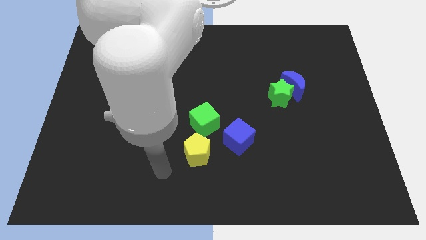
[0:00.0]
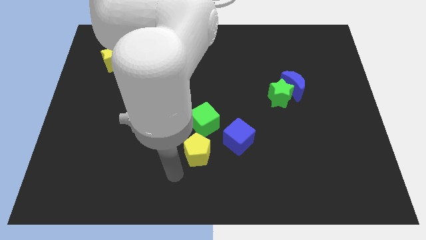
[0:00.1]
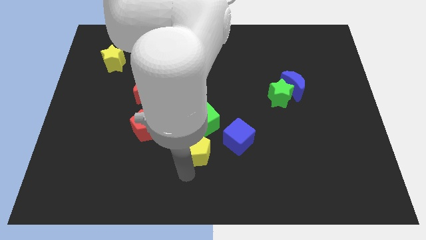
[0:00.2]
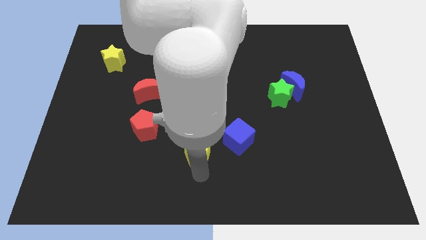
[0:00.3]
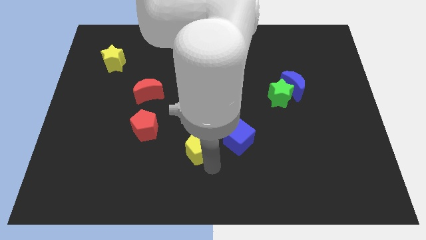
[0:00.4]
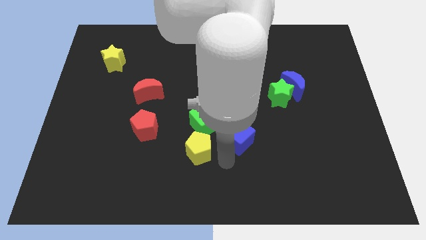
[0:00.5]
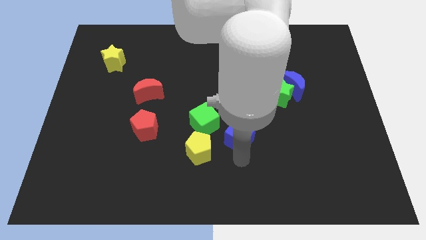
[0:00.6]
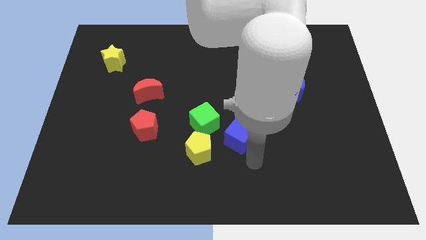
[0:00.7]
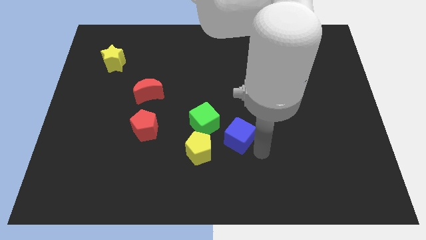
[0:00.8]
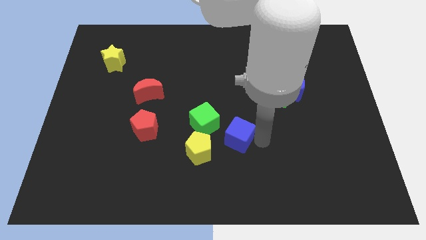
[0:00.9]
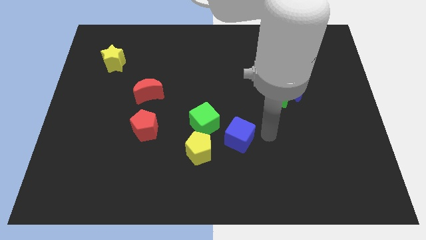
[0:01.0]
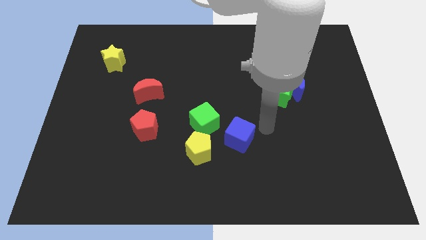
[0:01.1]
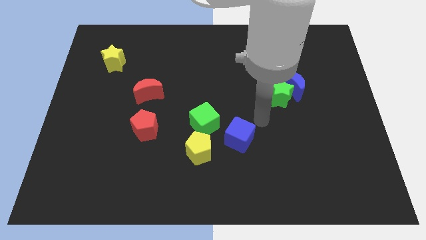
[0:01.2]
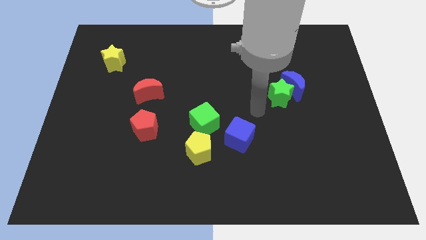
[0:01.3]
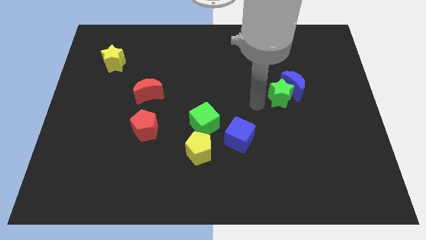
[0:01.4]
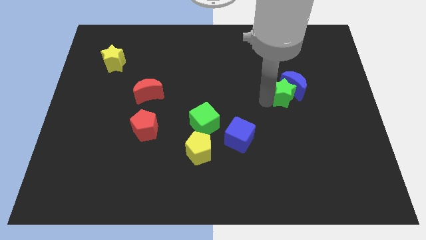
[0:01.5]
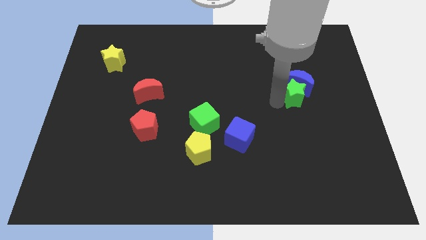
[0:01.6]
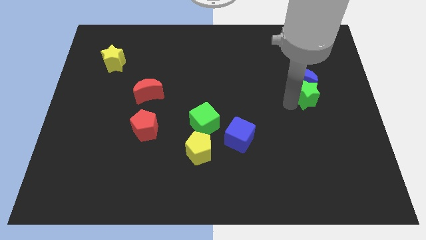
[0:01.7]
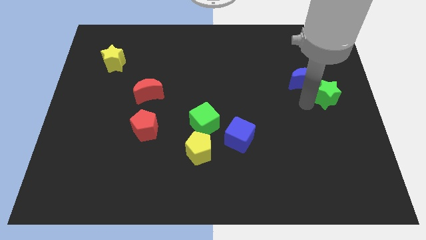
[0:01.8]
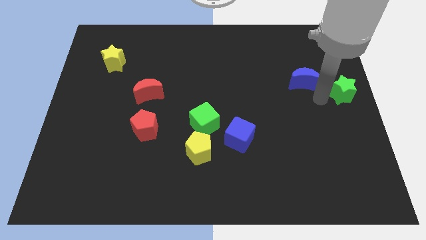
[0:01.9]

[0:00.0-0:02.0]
move the blue moon away from the green star

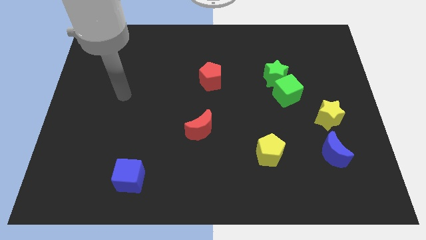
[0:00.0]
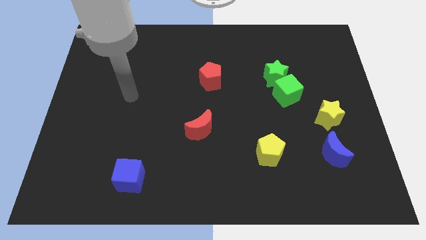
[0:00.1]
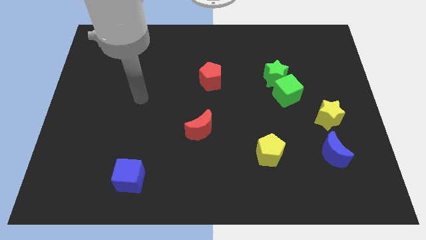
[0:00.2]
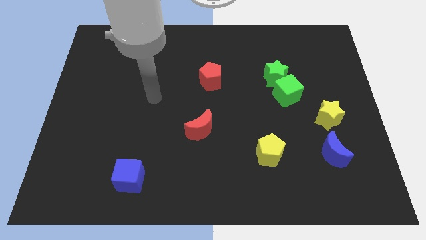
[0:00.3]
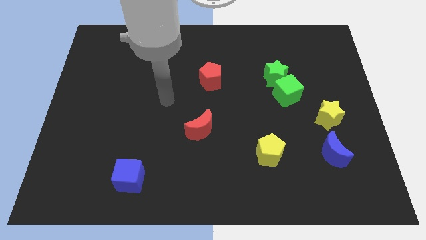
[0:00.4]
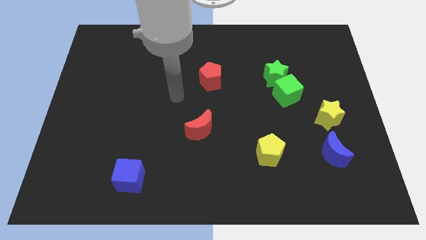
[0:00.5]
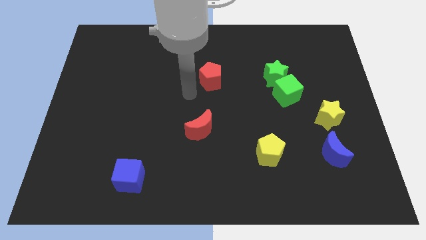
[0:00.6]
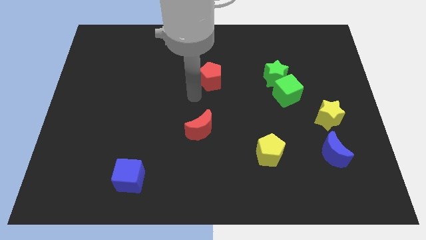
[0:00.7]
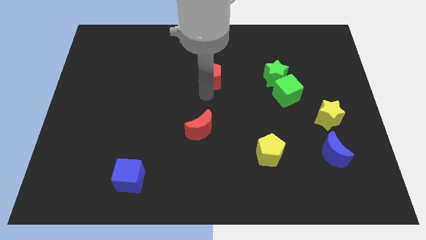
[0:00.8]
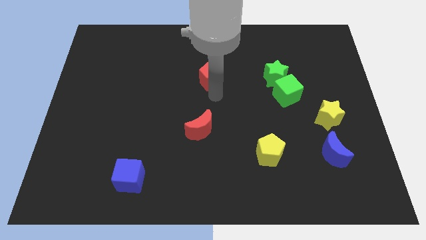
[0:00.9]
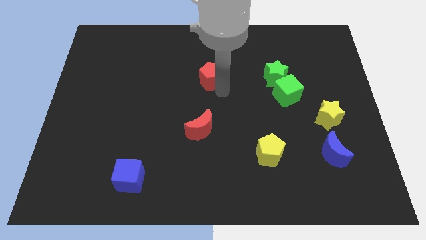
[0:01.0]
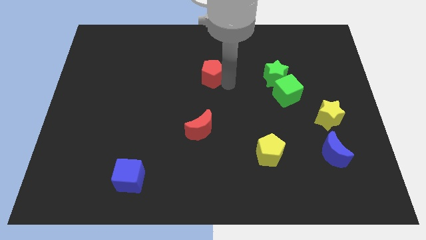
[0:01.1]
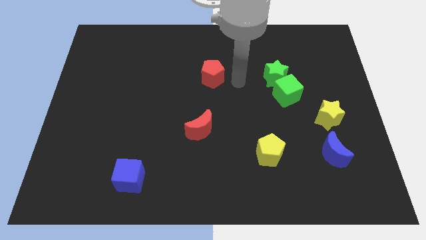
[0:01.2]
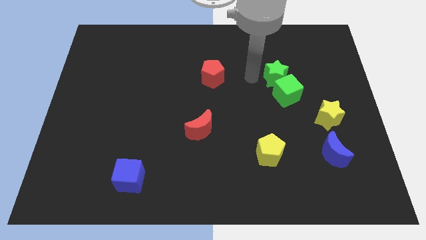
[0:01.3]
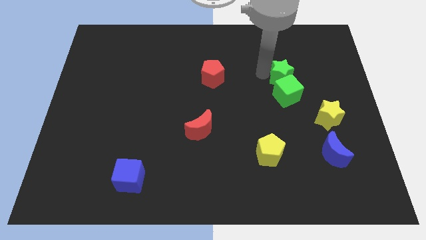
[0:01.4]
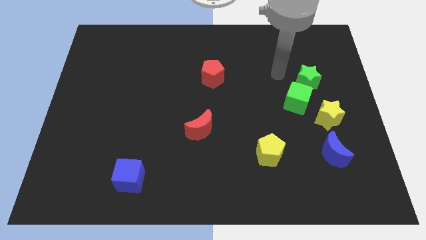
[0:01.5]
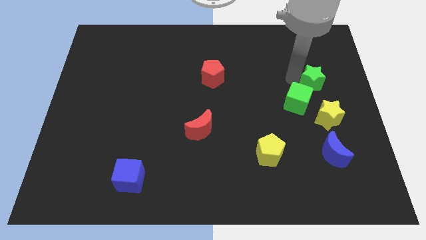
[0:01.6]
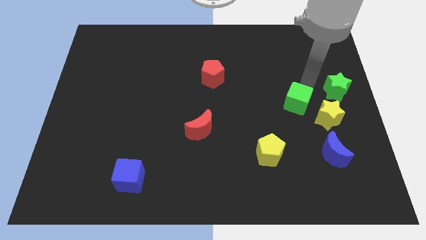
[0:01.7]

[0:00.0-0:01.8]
pull the green cube apart from the green star

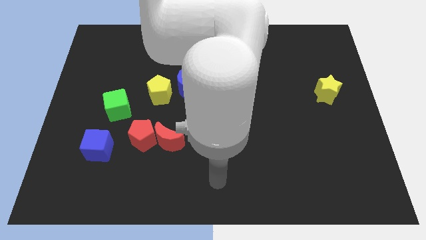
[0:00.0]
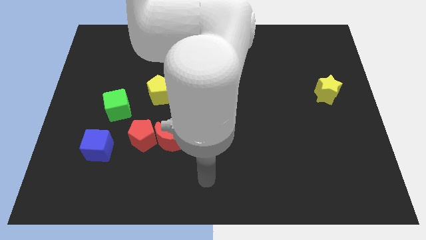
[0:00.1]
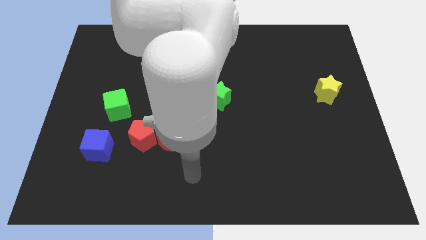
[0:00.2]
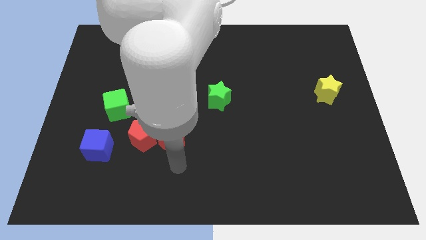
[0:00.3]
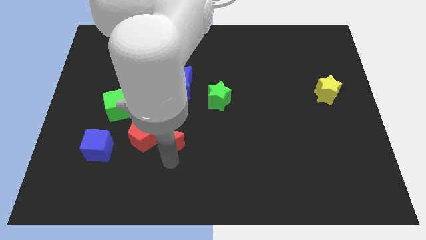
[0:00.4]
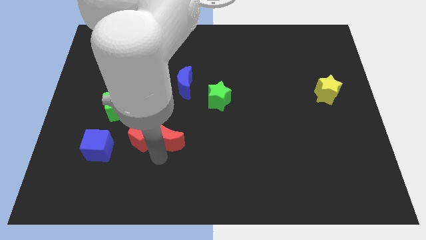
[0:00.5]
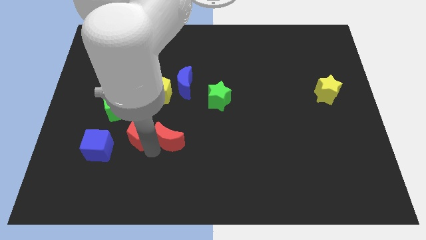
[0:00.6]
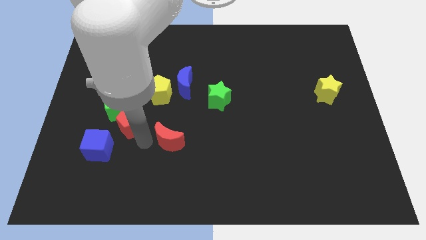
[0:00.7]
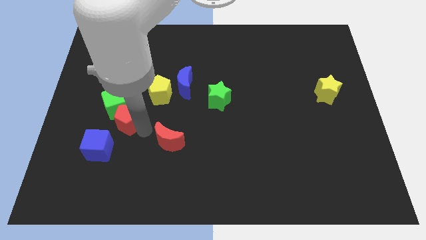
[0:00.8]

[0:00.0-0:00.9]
move the red moon away from the red pentagon

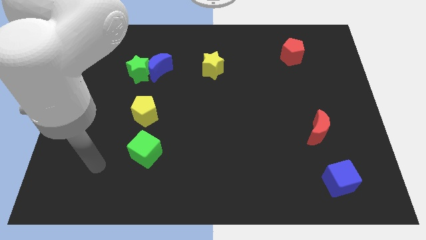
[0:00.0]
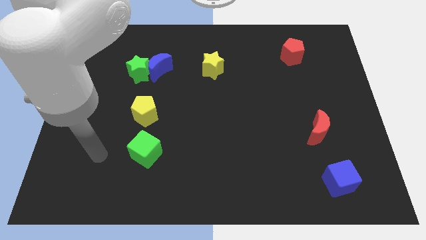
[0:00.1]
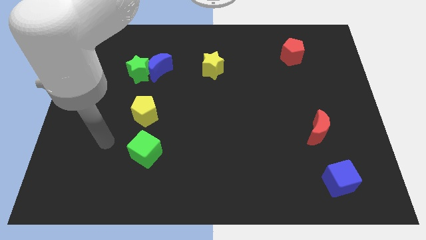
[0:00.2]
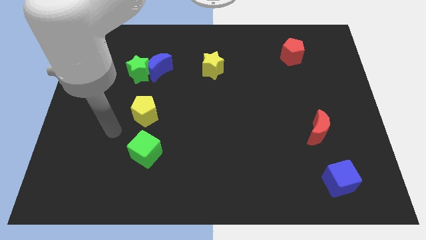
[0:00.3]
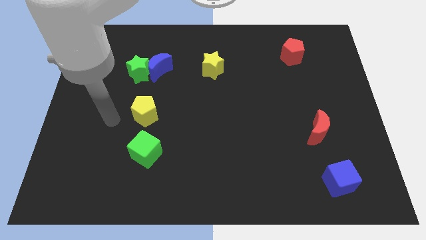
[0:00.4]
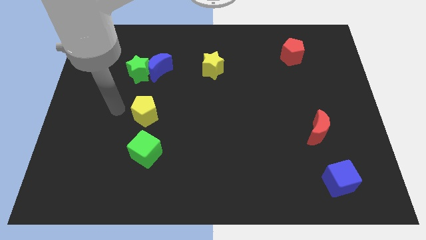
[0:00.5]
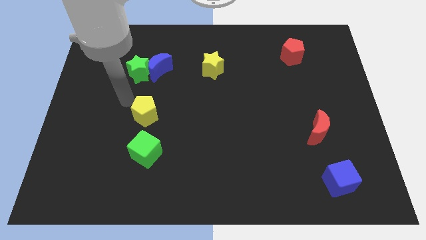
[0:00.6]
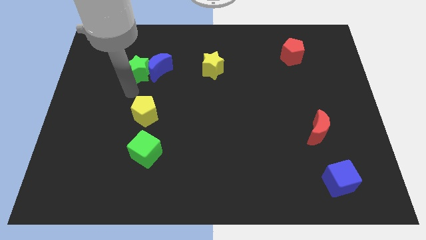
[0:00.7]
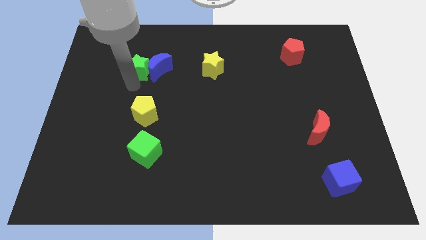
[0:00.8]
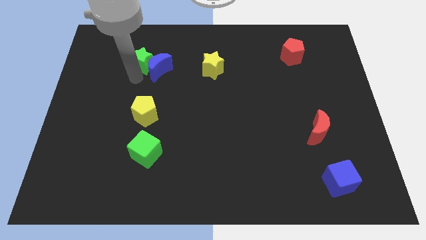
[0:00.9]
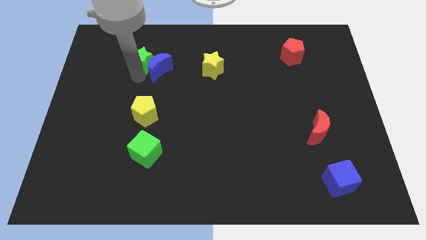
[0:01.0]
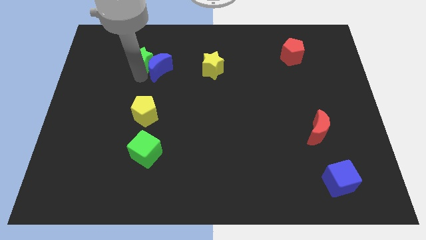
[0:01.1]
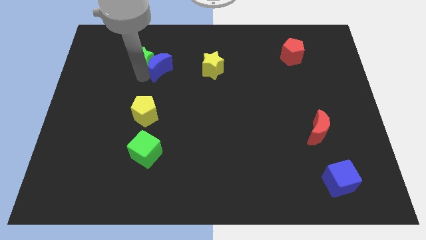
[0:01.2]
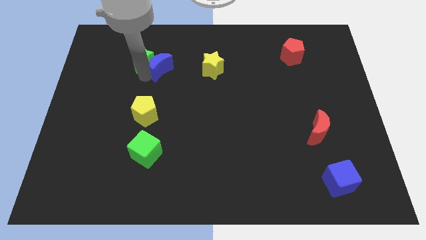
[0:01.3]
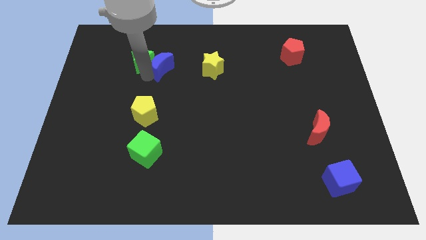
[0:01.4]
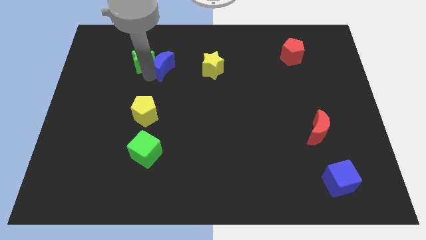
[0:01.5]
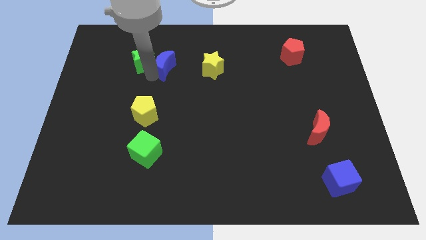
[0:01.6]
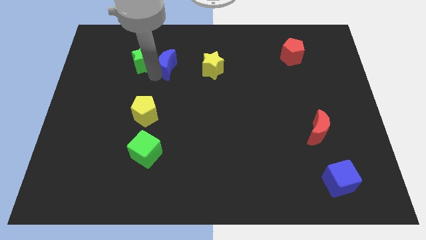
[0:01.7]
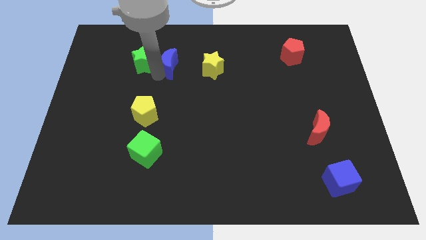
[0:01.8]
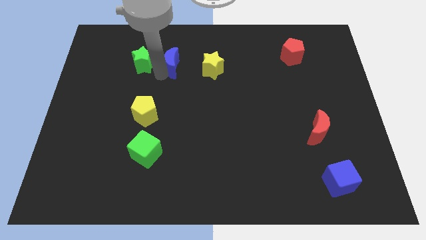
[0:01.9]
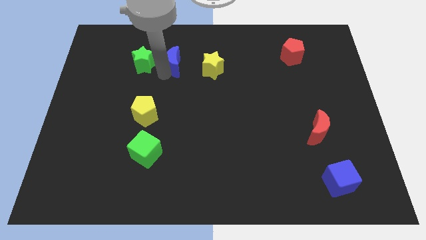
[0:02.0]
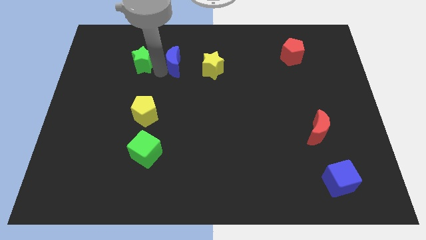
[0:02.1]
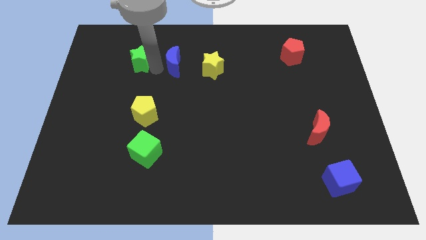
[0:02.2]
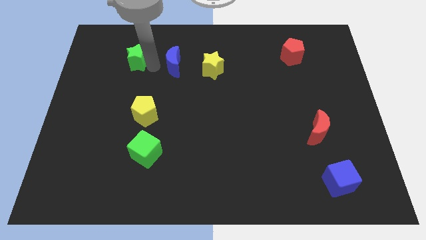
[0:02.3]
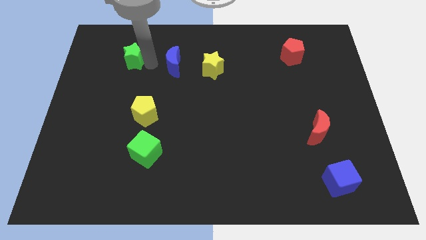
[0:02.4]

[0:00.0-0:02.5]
pull the blue moon apart from the green star

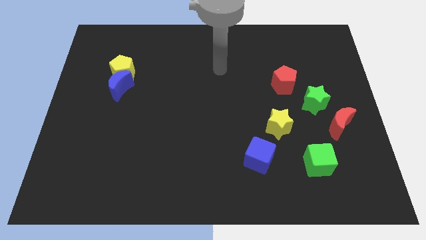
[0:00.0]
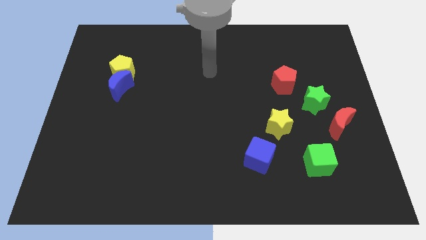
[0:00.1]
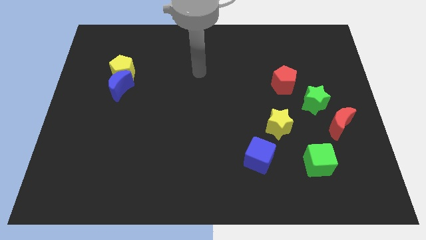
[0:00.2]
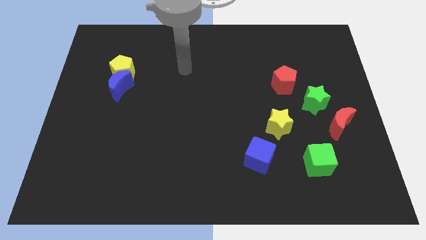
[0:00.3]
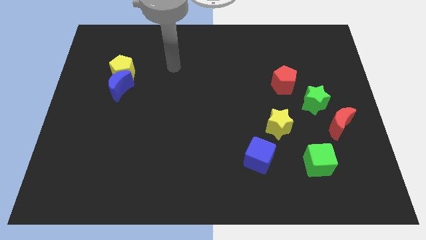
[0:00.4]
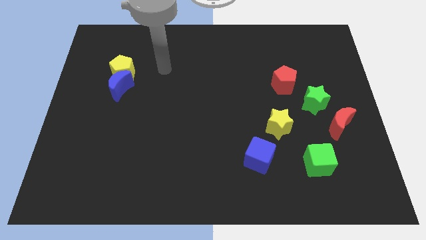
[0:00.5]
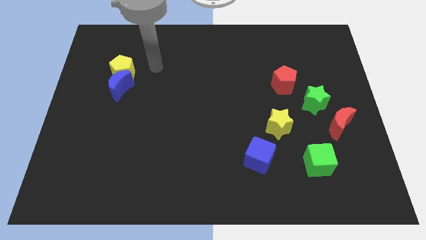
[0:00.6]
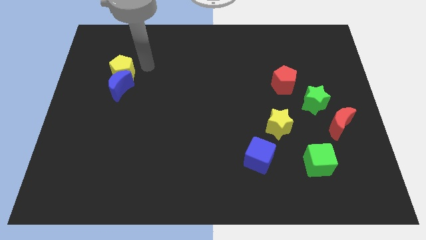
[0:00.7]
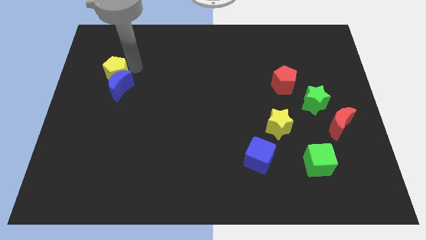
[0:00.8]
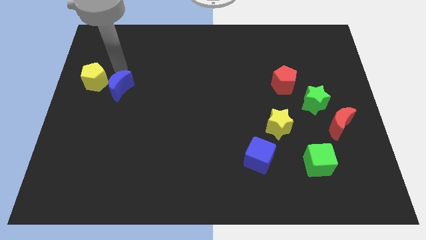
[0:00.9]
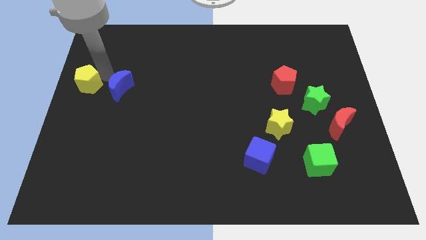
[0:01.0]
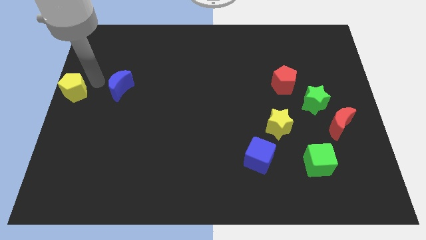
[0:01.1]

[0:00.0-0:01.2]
move the blue moon away from the yellow pentagon

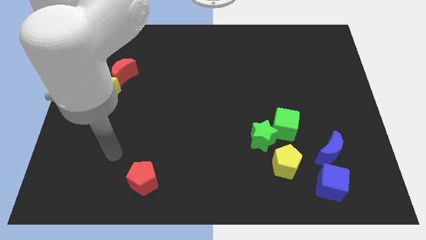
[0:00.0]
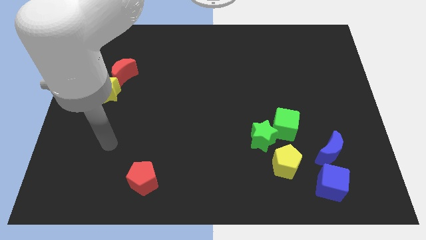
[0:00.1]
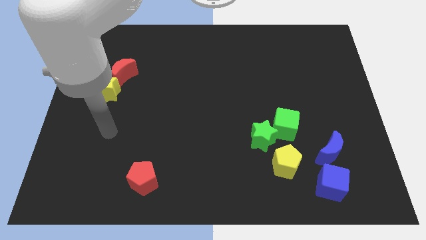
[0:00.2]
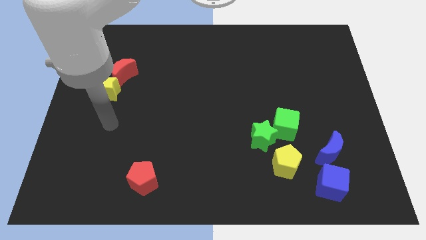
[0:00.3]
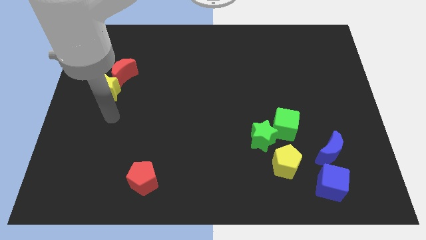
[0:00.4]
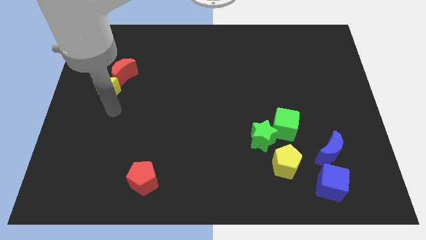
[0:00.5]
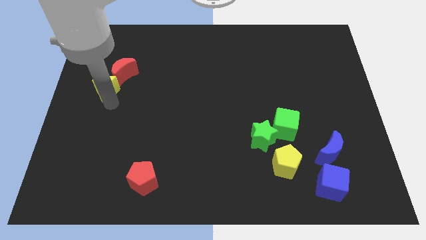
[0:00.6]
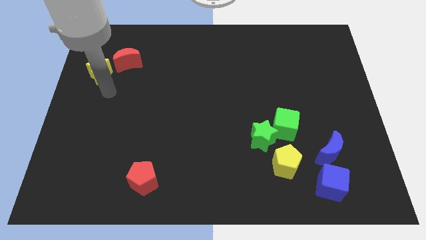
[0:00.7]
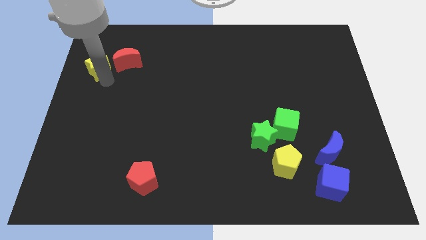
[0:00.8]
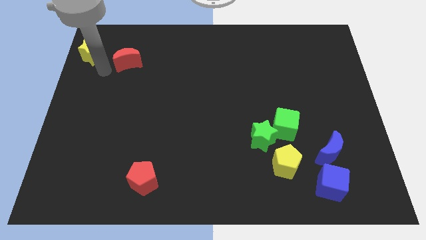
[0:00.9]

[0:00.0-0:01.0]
move the red moon away from the yellow star
